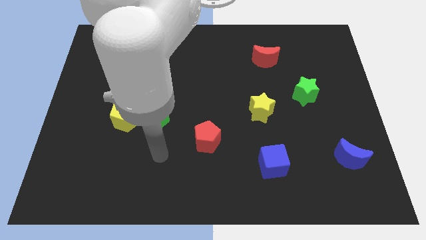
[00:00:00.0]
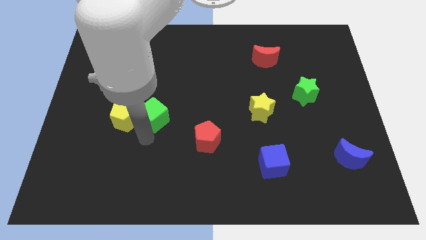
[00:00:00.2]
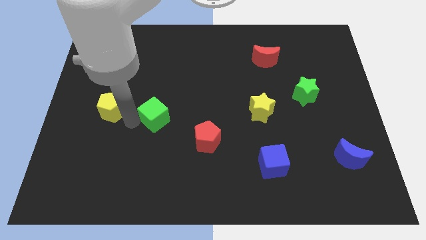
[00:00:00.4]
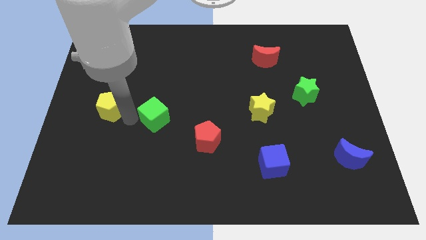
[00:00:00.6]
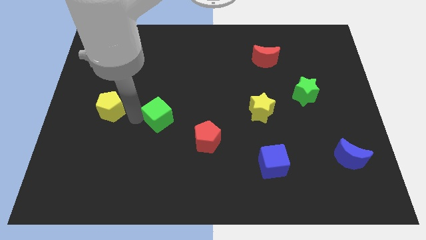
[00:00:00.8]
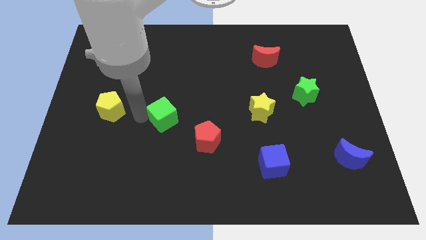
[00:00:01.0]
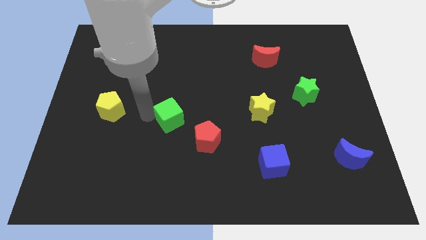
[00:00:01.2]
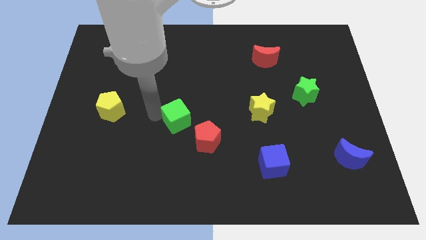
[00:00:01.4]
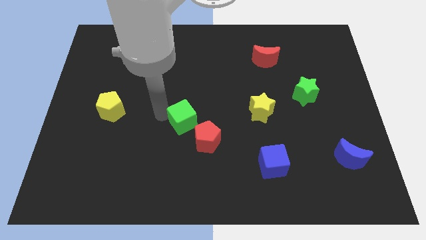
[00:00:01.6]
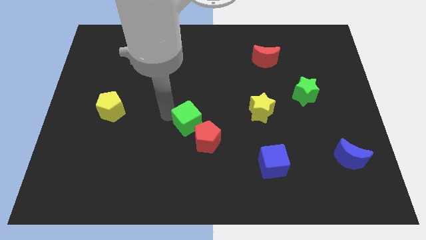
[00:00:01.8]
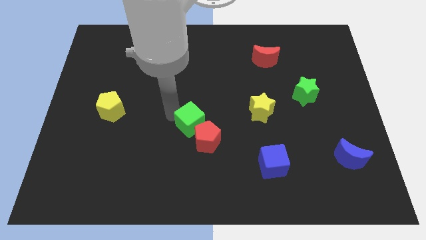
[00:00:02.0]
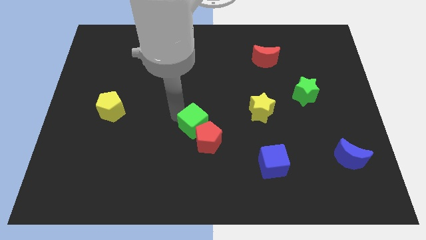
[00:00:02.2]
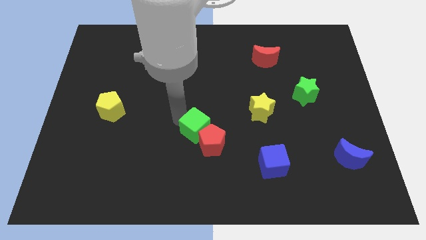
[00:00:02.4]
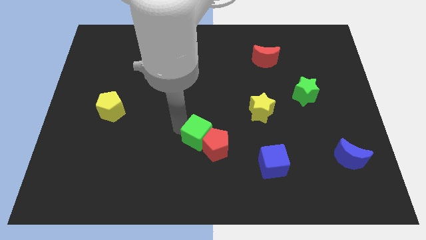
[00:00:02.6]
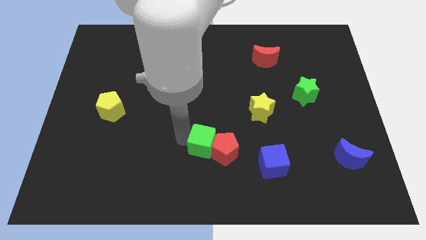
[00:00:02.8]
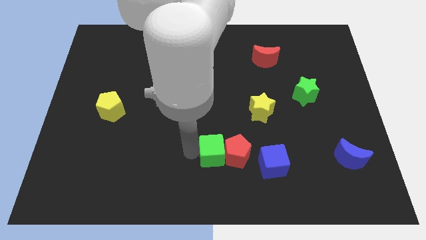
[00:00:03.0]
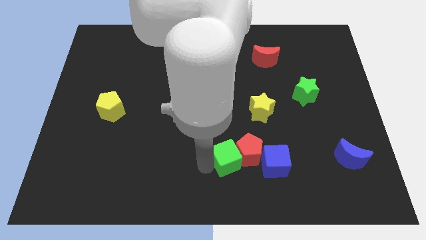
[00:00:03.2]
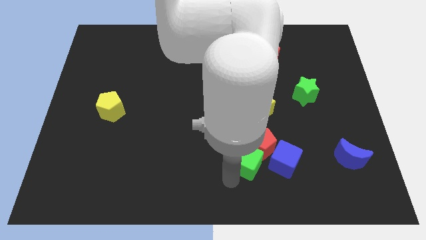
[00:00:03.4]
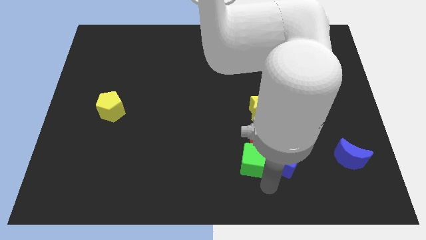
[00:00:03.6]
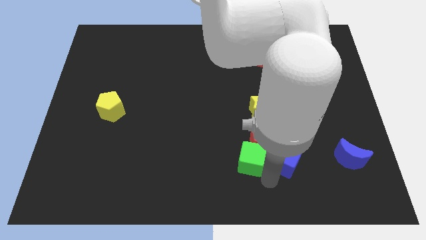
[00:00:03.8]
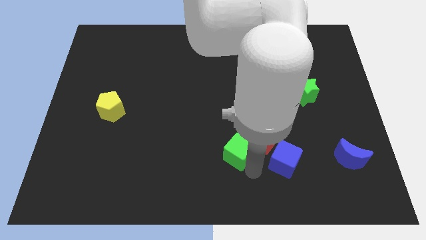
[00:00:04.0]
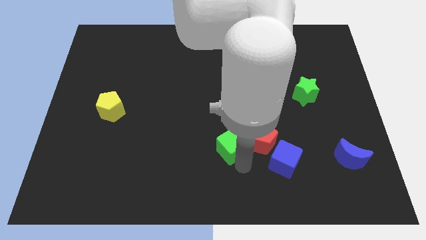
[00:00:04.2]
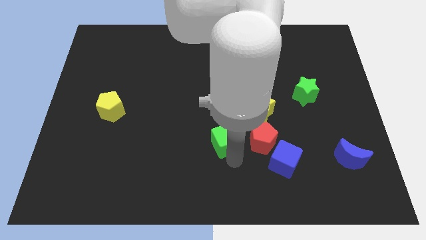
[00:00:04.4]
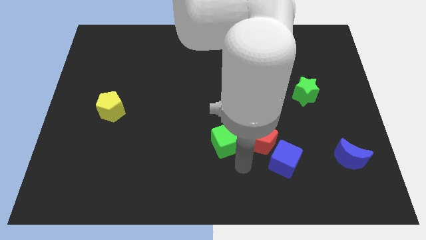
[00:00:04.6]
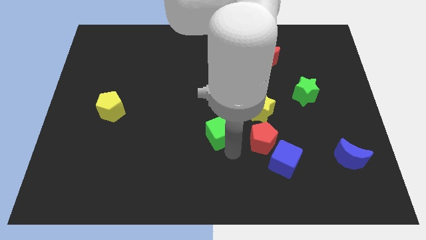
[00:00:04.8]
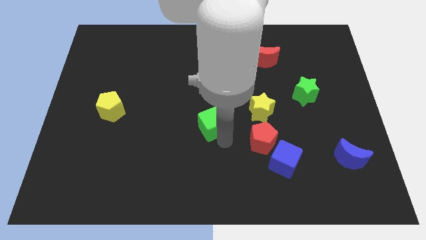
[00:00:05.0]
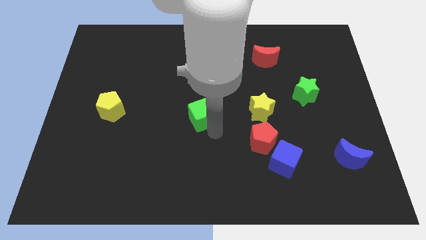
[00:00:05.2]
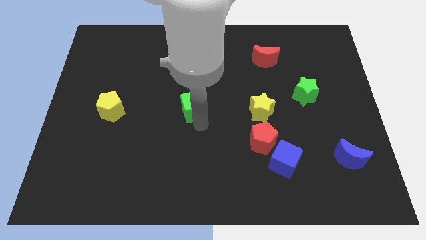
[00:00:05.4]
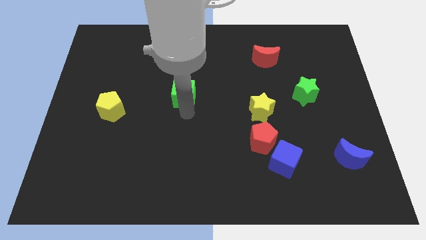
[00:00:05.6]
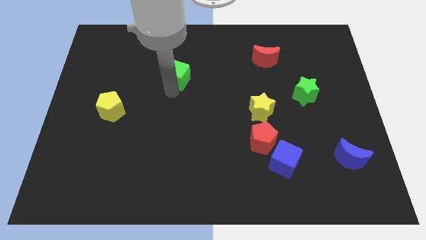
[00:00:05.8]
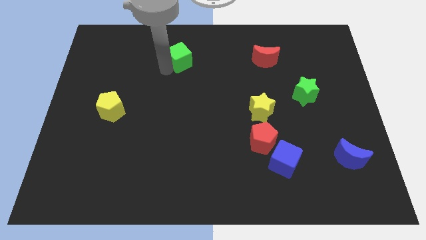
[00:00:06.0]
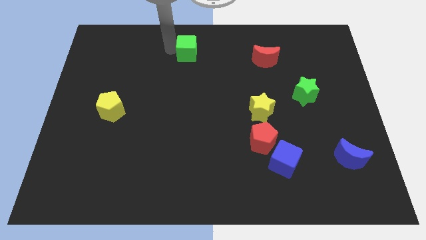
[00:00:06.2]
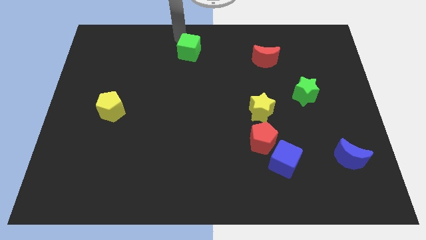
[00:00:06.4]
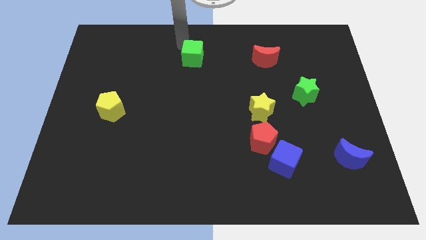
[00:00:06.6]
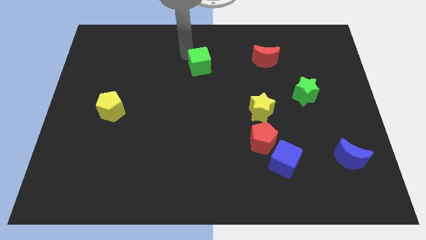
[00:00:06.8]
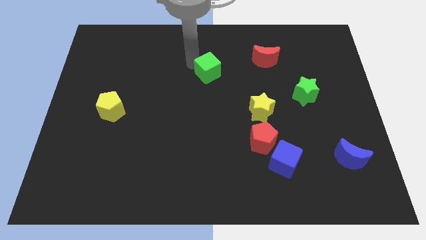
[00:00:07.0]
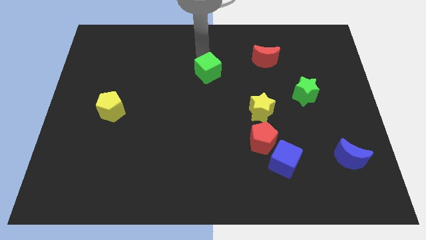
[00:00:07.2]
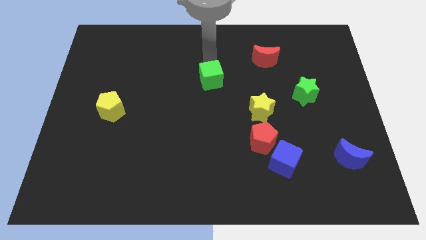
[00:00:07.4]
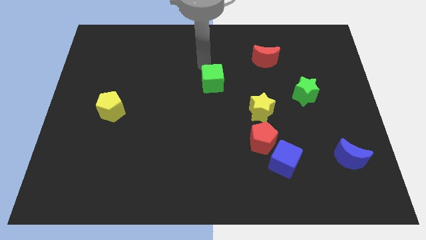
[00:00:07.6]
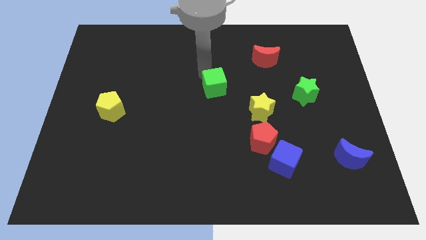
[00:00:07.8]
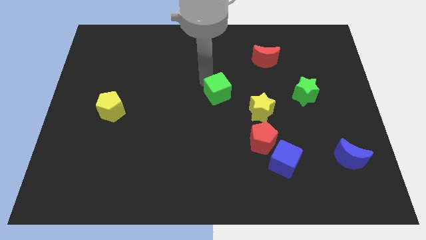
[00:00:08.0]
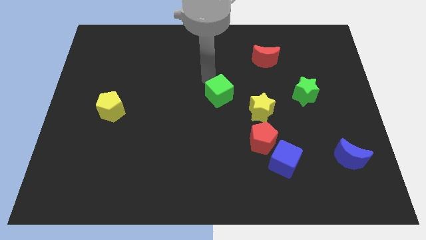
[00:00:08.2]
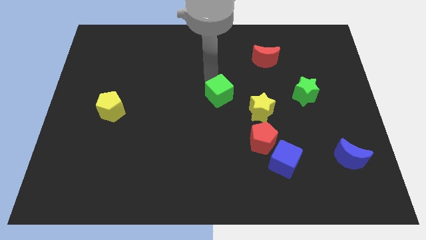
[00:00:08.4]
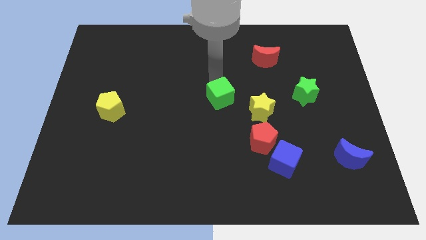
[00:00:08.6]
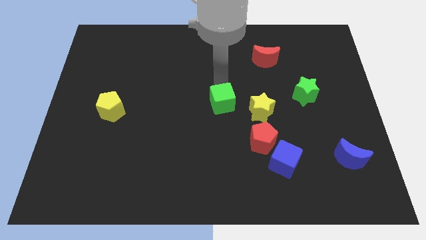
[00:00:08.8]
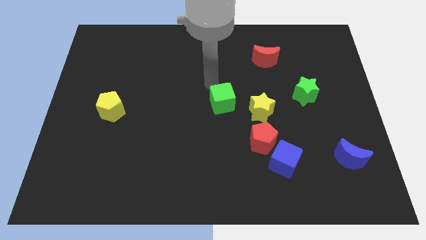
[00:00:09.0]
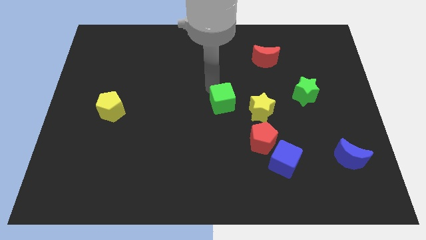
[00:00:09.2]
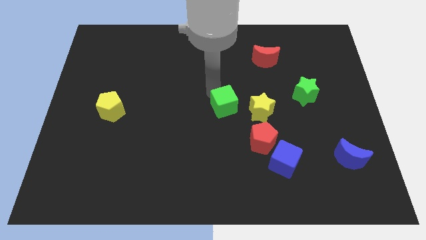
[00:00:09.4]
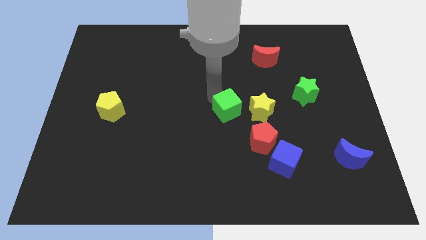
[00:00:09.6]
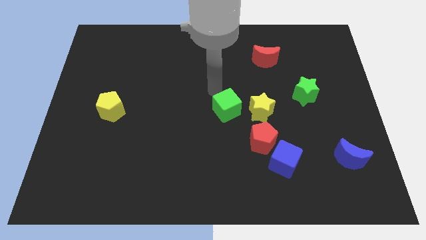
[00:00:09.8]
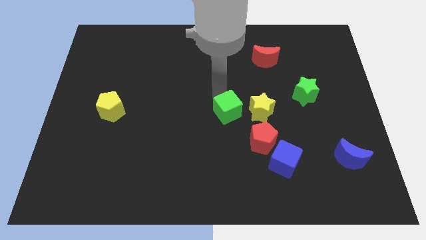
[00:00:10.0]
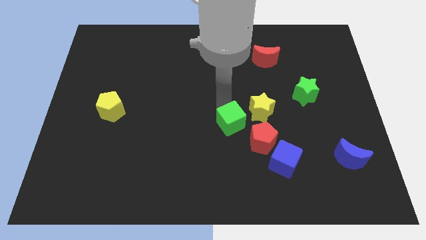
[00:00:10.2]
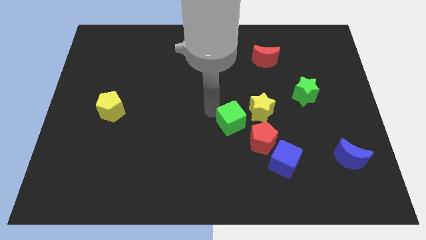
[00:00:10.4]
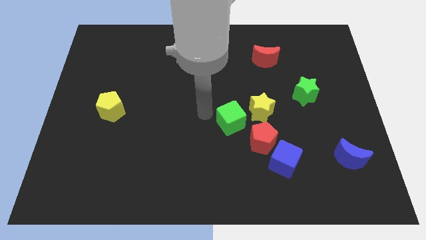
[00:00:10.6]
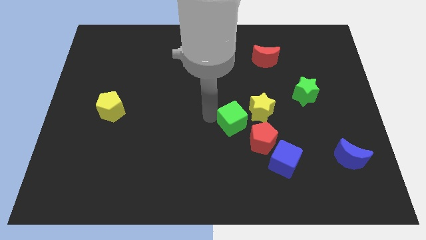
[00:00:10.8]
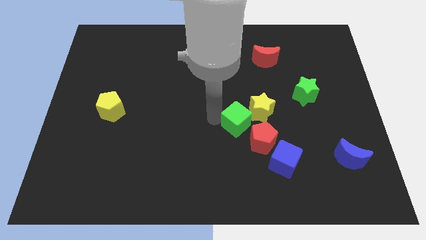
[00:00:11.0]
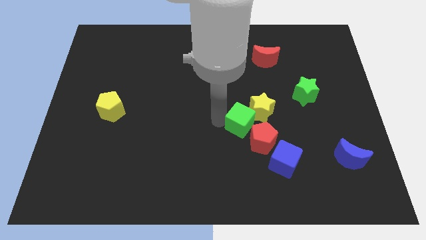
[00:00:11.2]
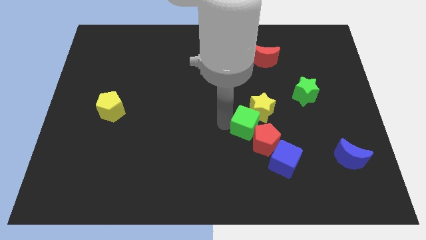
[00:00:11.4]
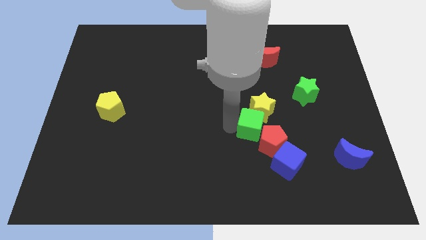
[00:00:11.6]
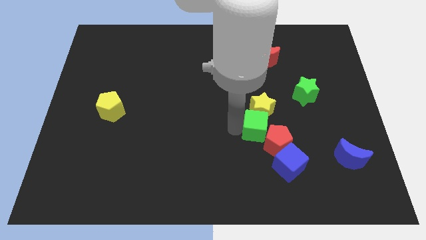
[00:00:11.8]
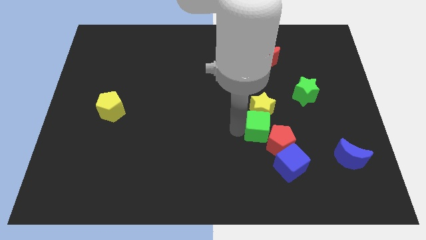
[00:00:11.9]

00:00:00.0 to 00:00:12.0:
put the green cube to the bottom right side of the yellow star

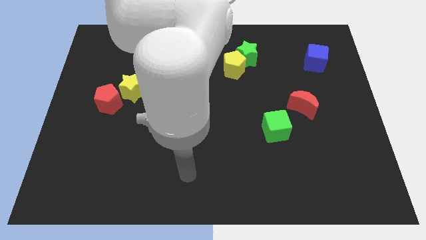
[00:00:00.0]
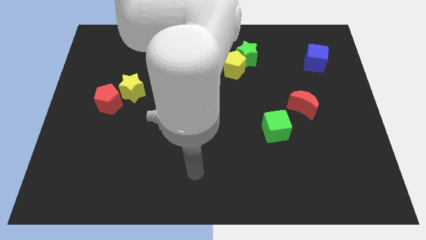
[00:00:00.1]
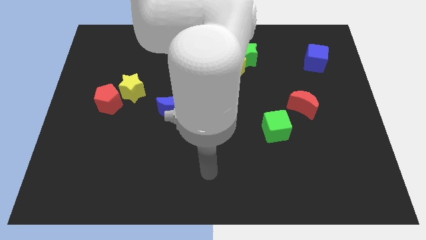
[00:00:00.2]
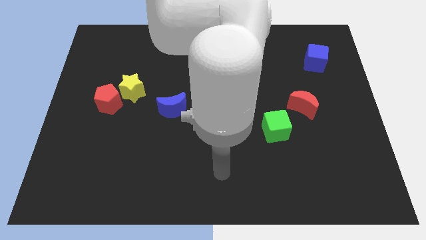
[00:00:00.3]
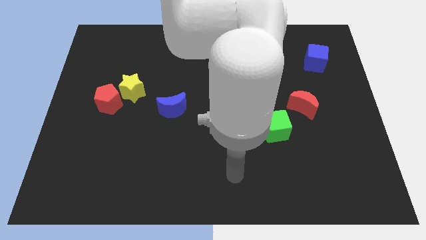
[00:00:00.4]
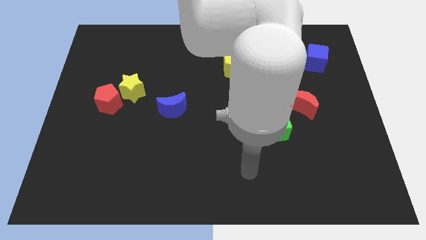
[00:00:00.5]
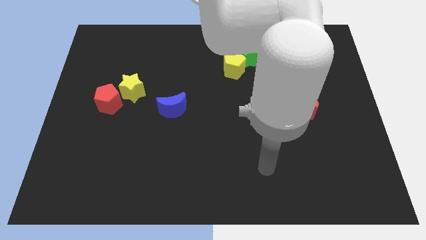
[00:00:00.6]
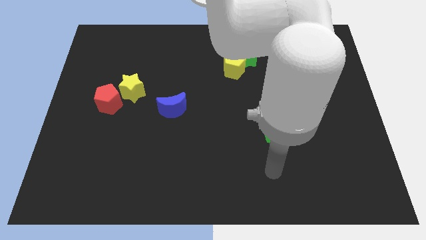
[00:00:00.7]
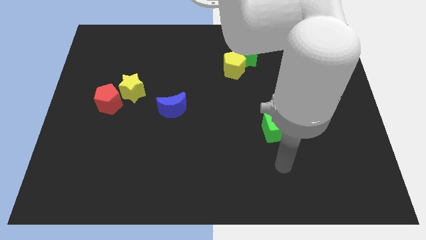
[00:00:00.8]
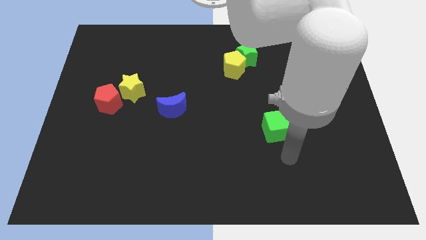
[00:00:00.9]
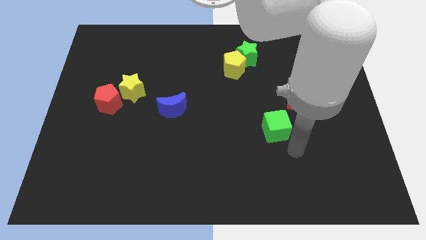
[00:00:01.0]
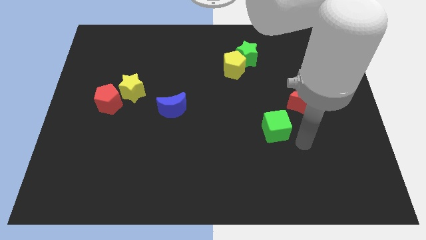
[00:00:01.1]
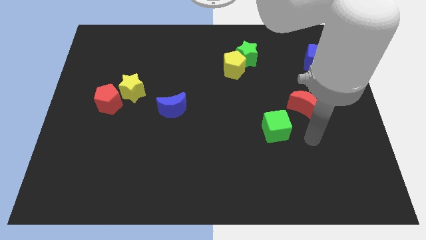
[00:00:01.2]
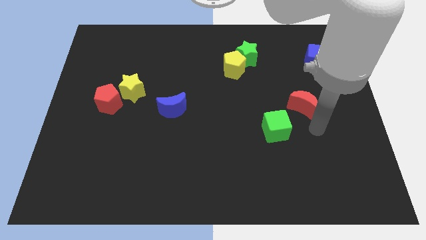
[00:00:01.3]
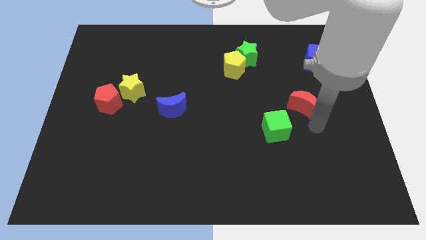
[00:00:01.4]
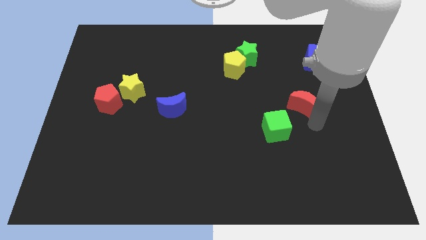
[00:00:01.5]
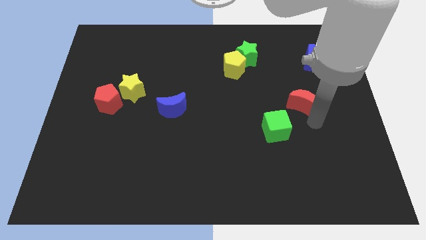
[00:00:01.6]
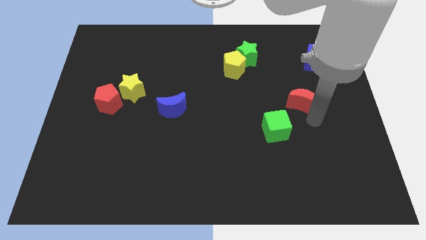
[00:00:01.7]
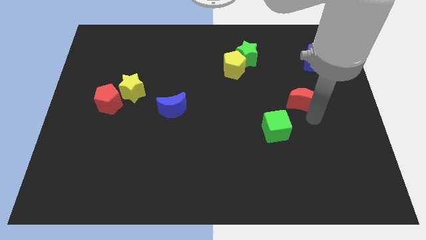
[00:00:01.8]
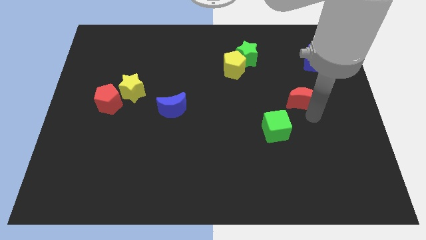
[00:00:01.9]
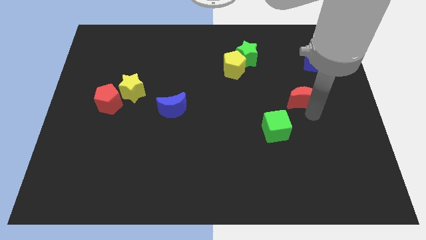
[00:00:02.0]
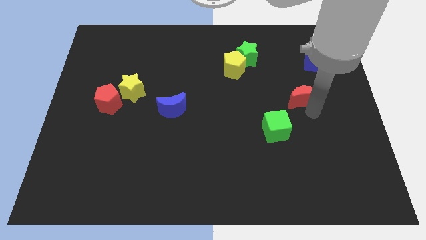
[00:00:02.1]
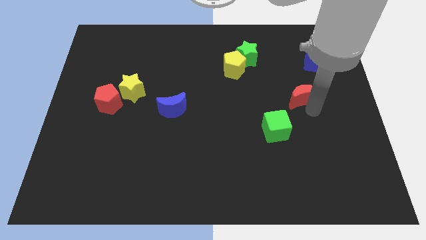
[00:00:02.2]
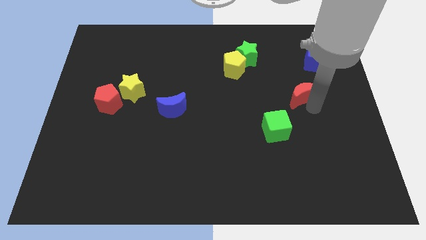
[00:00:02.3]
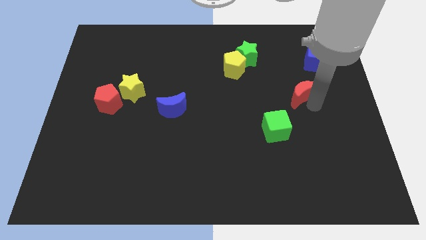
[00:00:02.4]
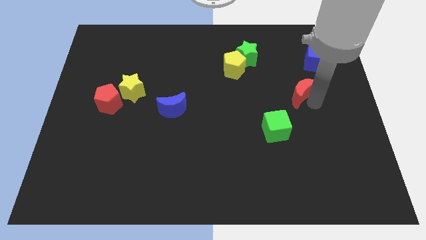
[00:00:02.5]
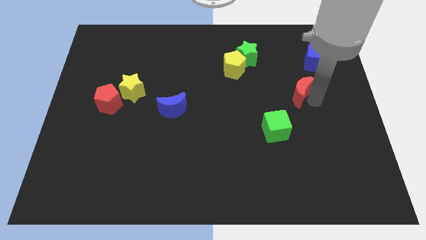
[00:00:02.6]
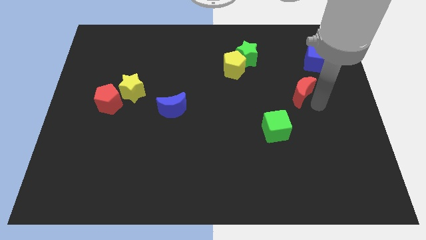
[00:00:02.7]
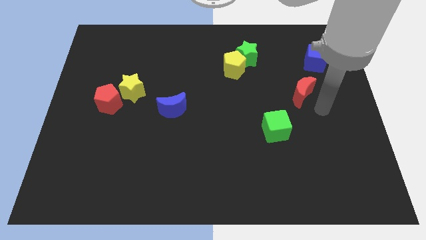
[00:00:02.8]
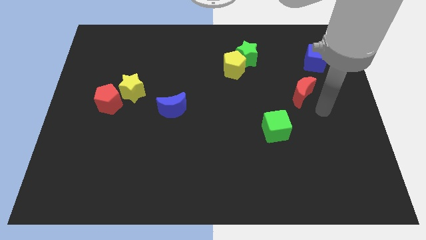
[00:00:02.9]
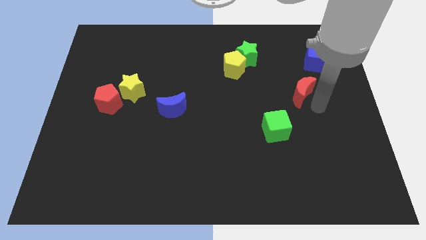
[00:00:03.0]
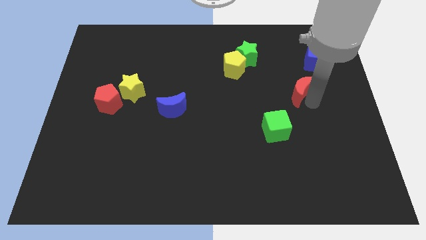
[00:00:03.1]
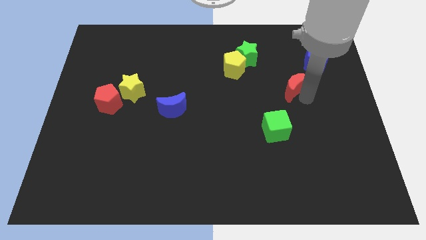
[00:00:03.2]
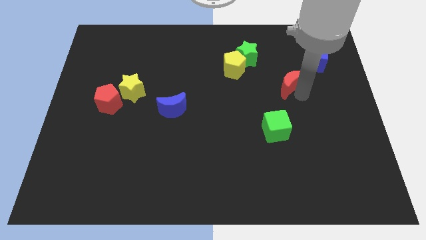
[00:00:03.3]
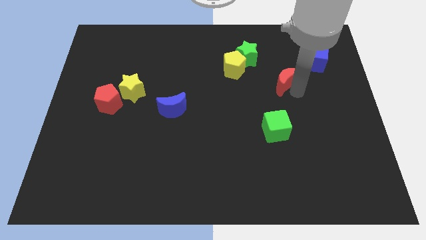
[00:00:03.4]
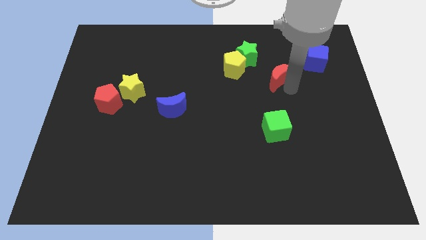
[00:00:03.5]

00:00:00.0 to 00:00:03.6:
move the red moon right of the yellow pentagon
